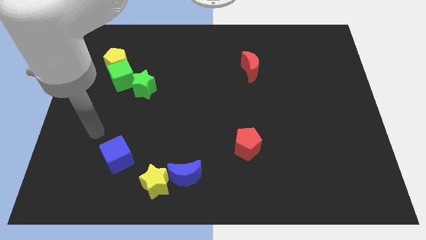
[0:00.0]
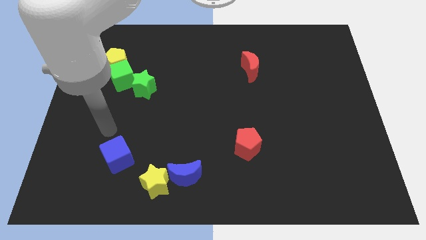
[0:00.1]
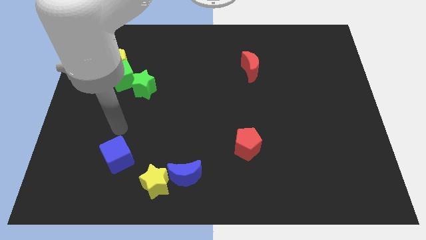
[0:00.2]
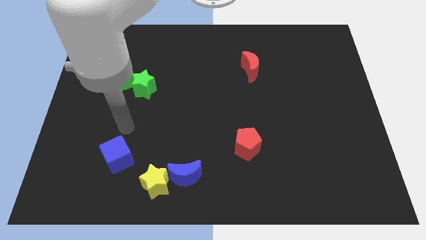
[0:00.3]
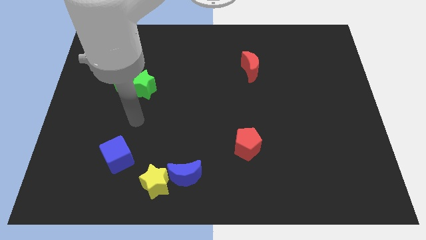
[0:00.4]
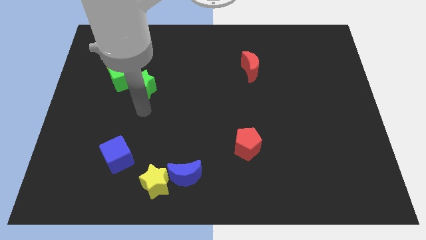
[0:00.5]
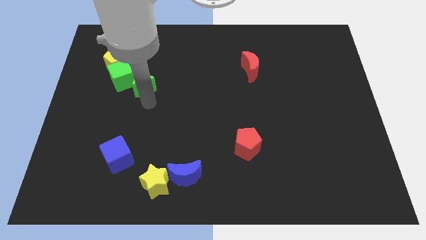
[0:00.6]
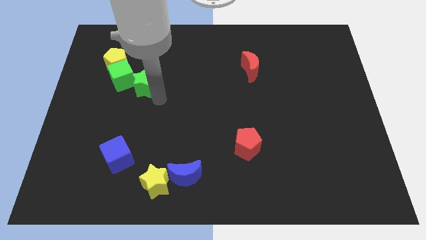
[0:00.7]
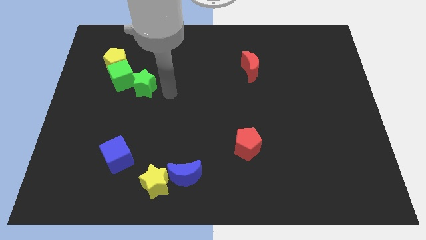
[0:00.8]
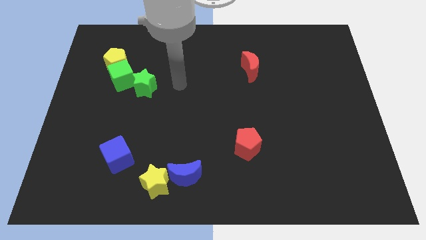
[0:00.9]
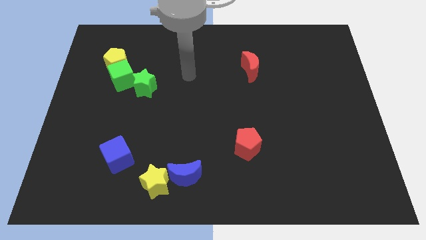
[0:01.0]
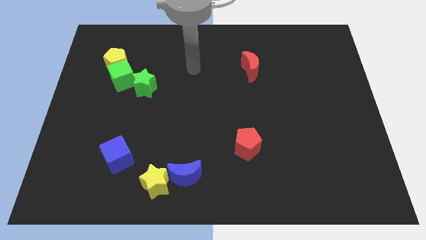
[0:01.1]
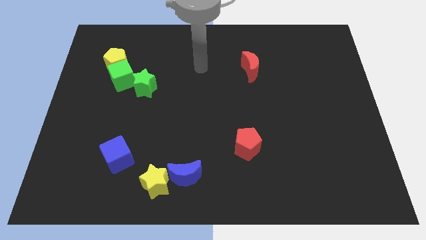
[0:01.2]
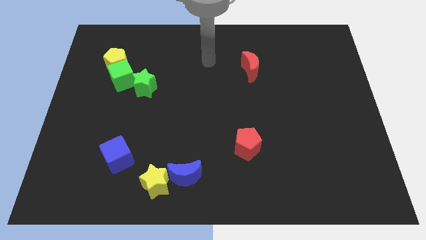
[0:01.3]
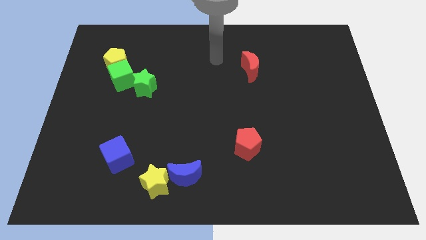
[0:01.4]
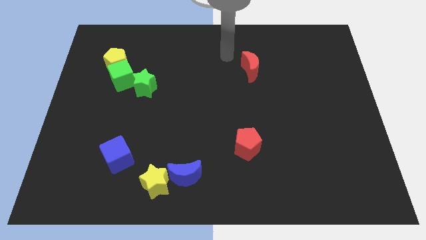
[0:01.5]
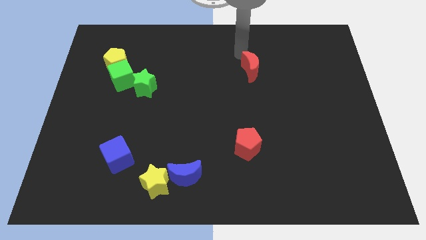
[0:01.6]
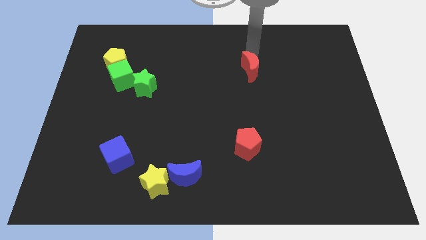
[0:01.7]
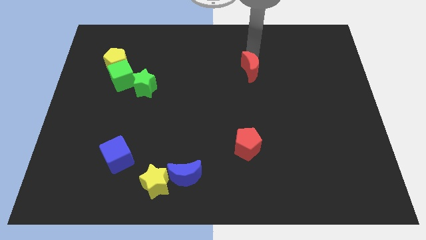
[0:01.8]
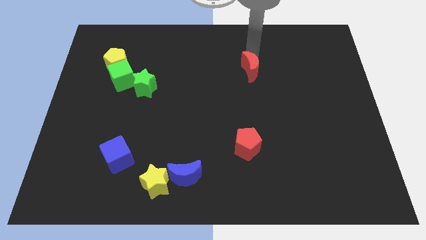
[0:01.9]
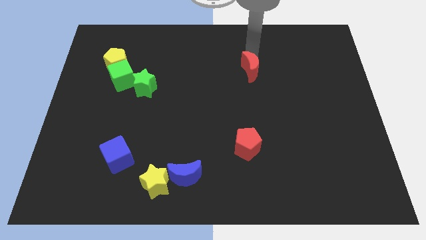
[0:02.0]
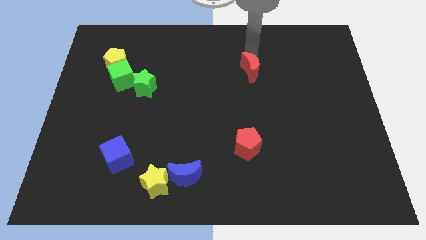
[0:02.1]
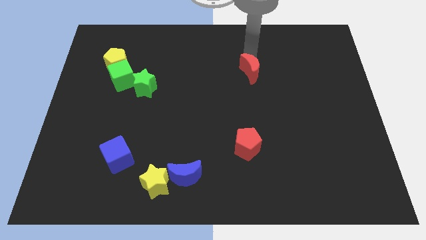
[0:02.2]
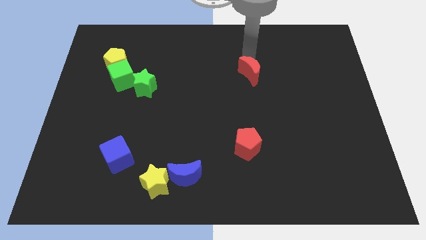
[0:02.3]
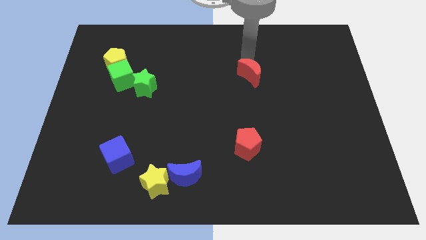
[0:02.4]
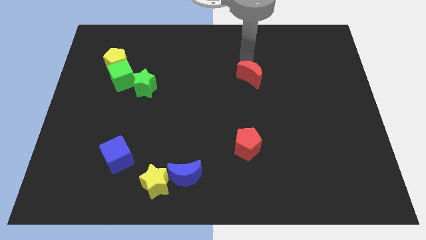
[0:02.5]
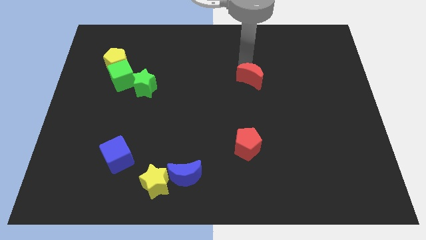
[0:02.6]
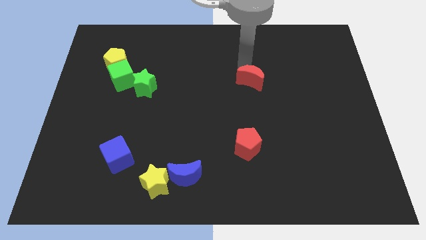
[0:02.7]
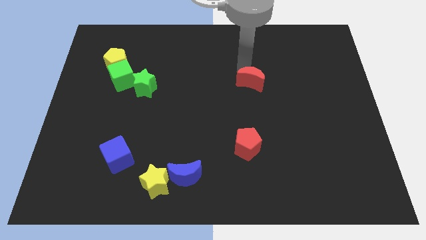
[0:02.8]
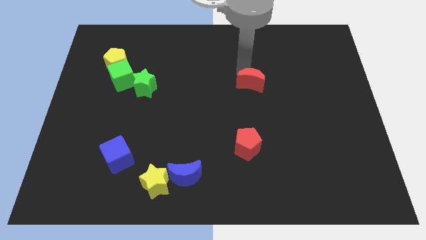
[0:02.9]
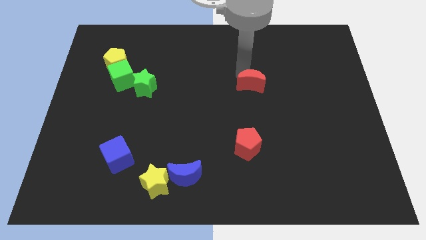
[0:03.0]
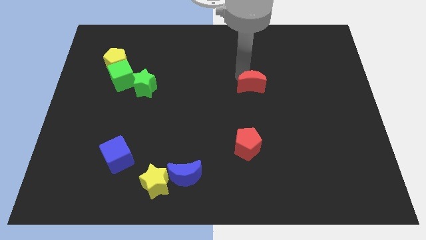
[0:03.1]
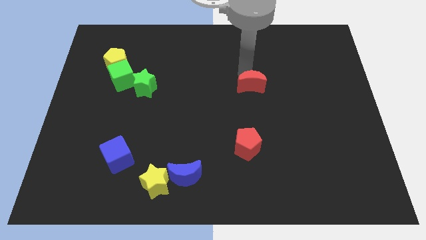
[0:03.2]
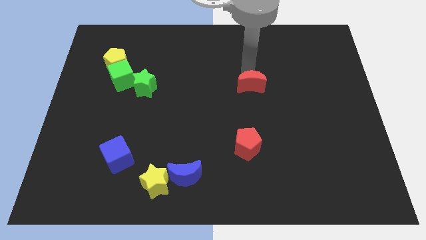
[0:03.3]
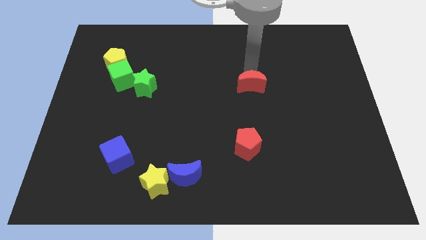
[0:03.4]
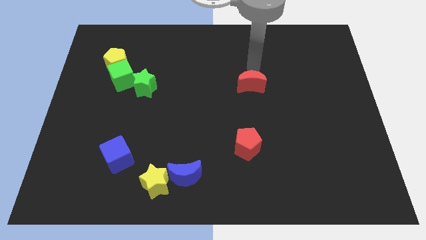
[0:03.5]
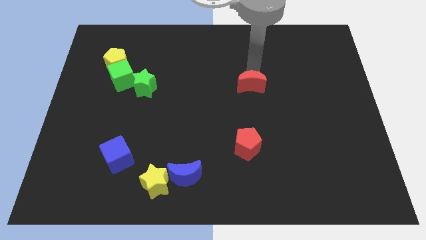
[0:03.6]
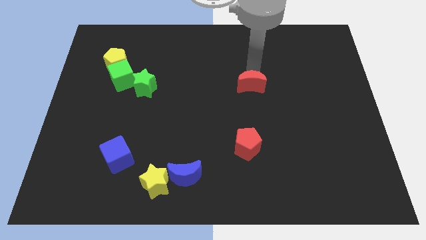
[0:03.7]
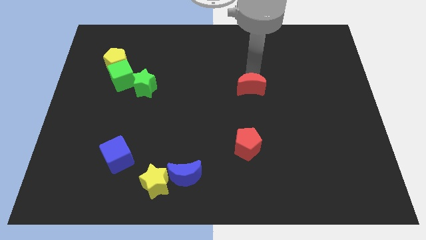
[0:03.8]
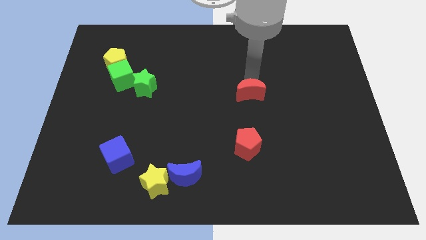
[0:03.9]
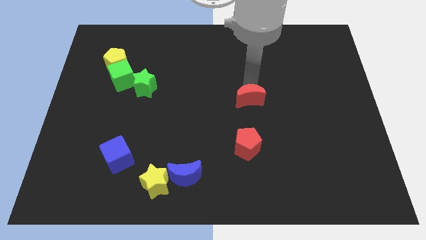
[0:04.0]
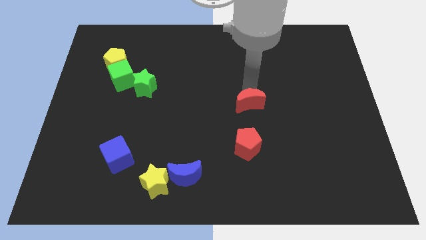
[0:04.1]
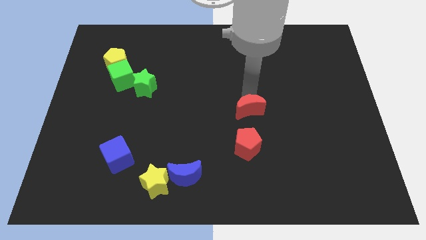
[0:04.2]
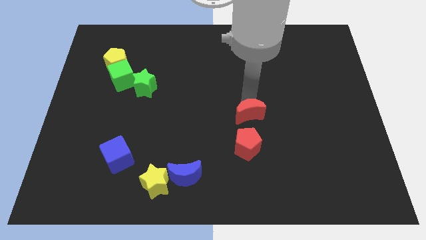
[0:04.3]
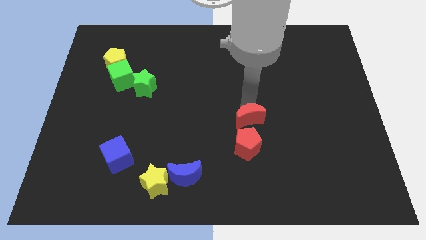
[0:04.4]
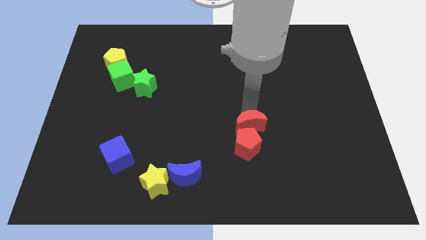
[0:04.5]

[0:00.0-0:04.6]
slide the red moon to the red pentagon

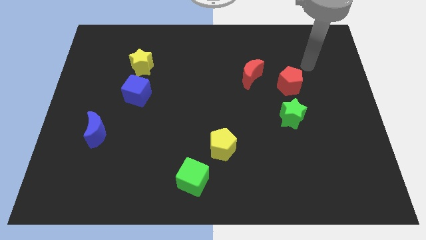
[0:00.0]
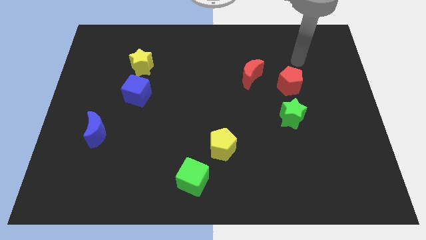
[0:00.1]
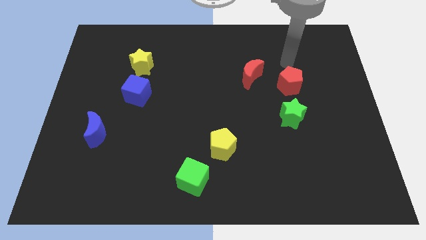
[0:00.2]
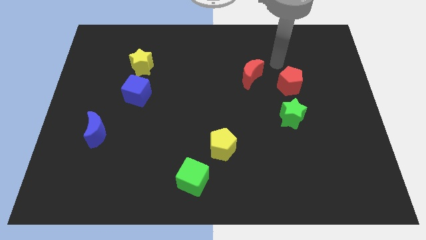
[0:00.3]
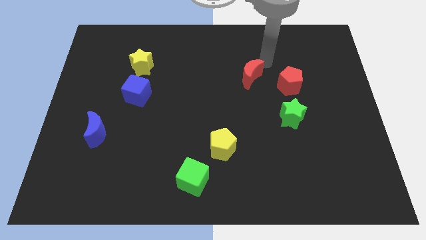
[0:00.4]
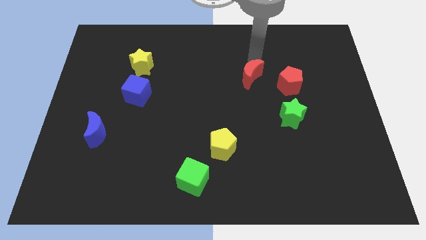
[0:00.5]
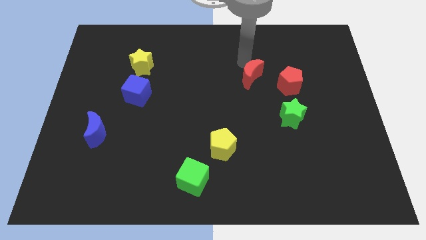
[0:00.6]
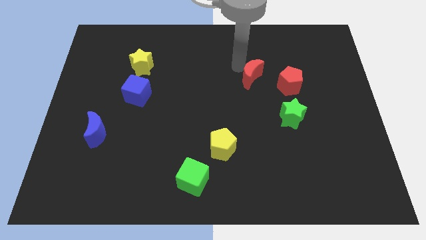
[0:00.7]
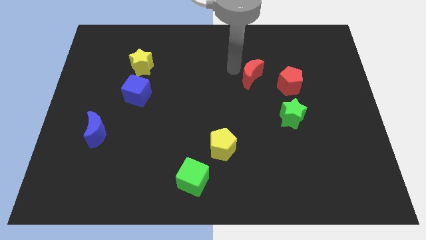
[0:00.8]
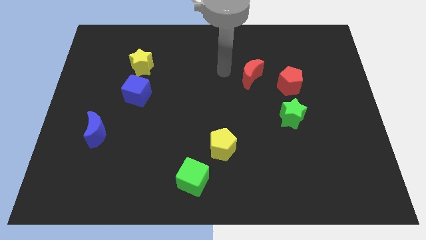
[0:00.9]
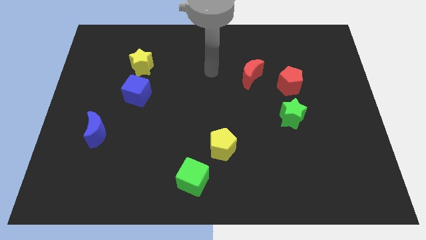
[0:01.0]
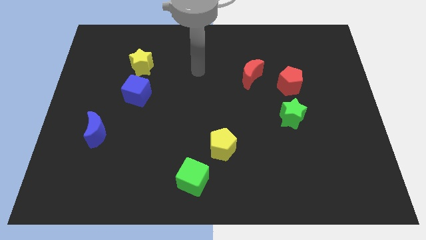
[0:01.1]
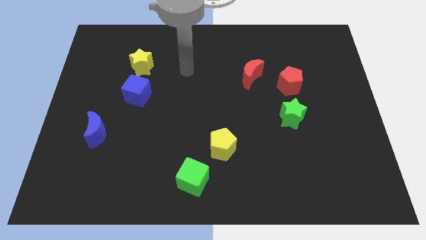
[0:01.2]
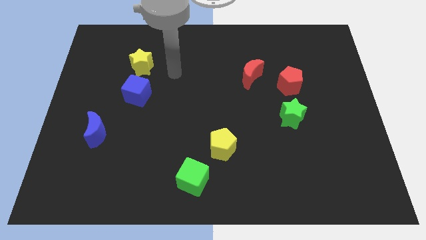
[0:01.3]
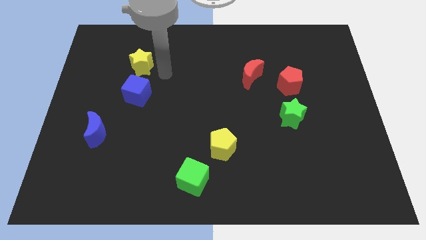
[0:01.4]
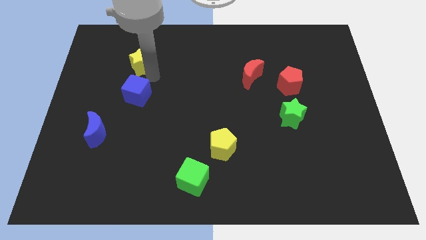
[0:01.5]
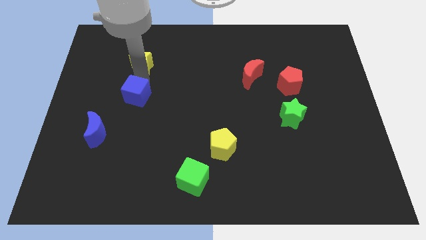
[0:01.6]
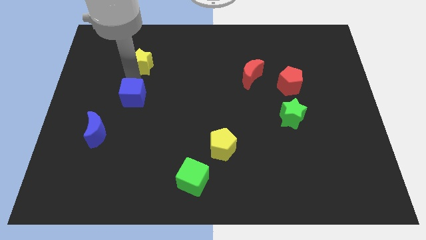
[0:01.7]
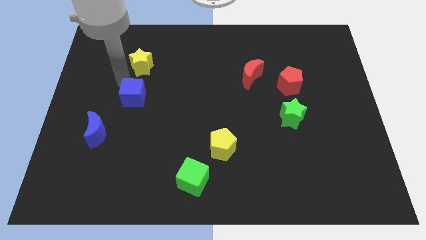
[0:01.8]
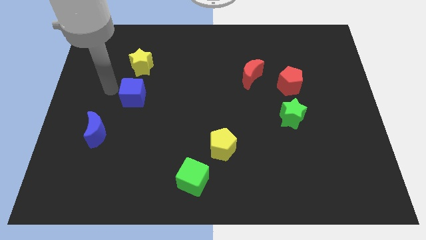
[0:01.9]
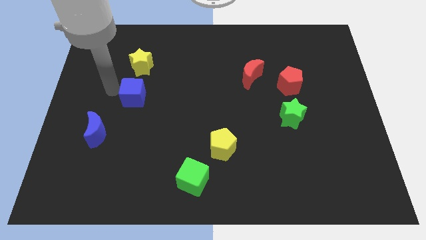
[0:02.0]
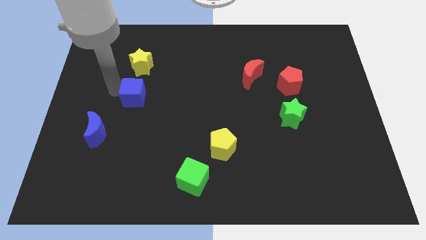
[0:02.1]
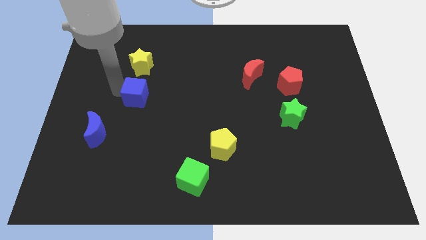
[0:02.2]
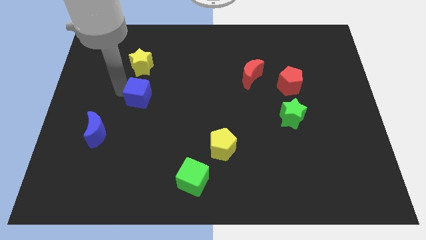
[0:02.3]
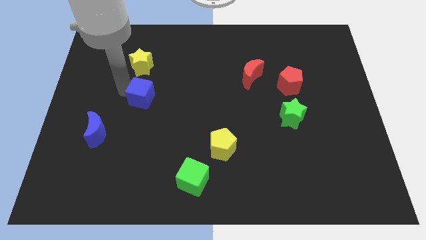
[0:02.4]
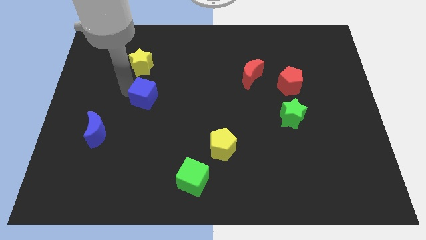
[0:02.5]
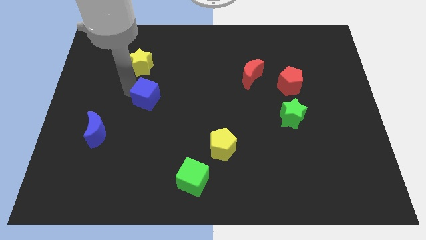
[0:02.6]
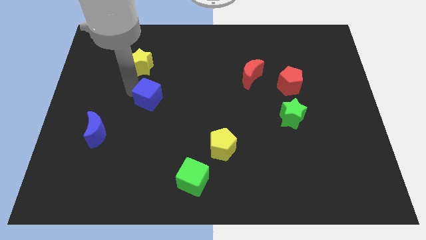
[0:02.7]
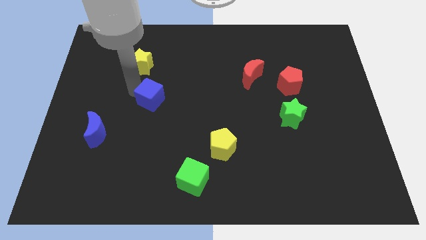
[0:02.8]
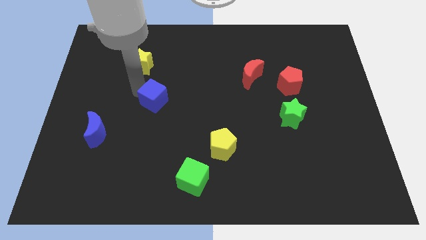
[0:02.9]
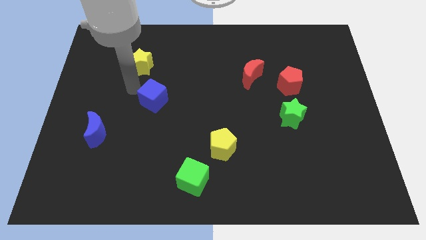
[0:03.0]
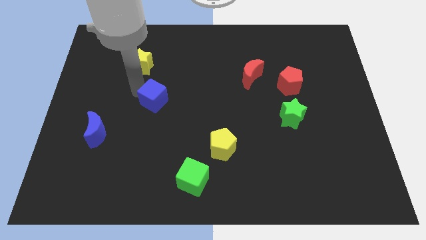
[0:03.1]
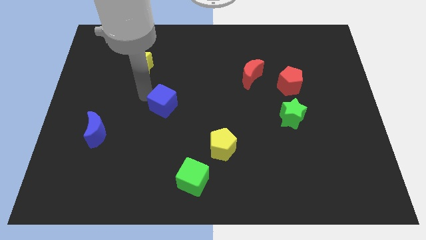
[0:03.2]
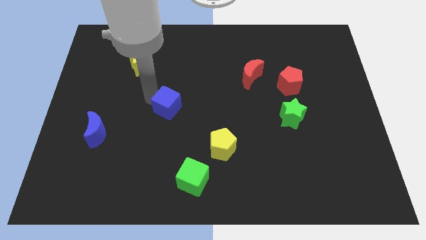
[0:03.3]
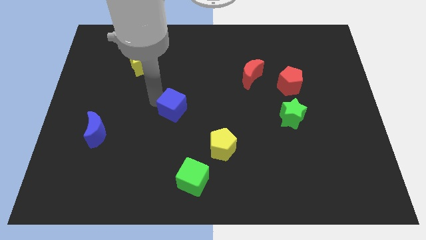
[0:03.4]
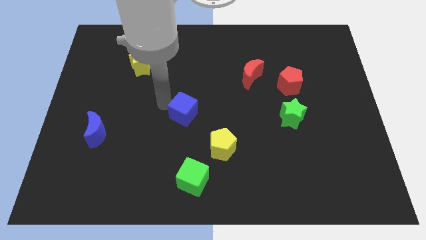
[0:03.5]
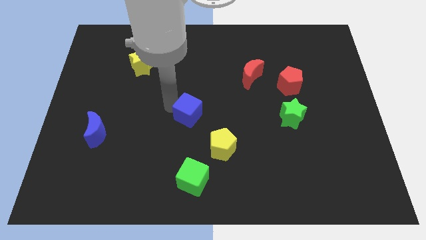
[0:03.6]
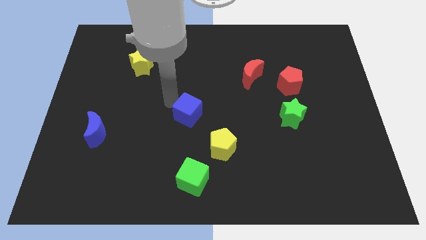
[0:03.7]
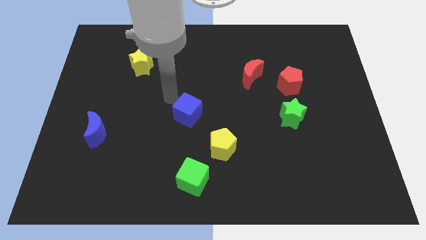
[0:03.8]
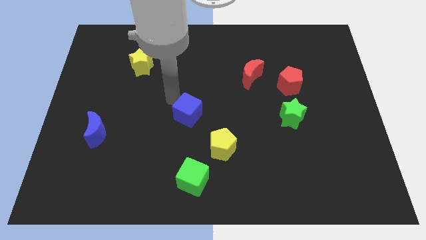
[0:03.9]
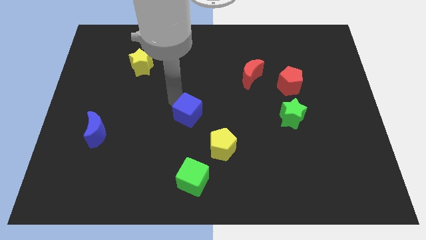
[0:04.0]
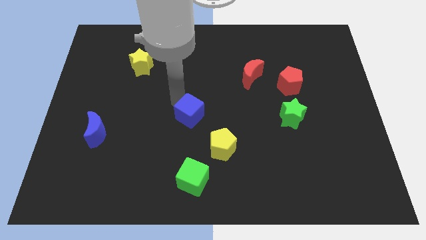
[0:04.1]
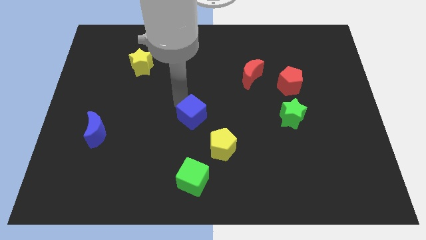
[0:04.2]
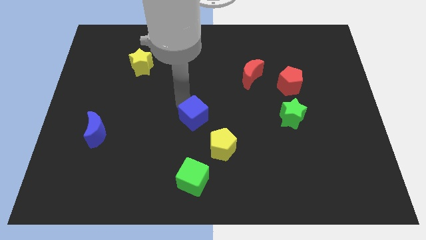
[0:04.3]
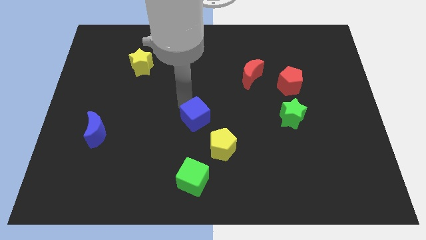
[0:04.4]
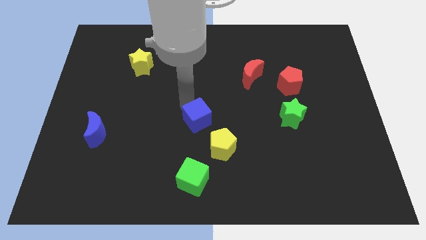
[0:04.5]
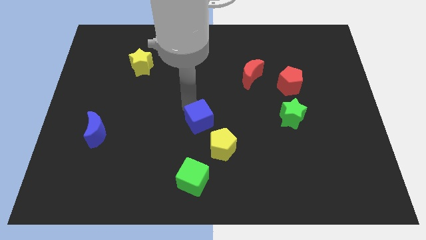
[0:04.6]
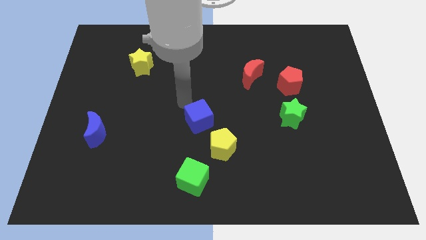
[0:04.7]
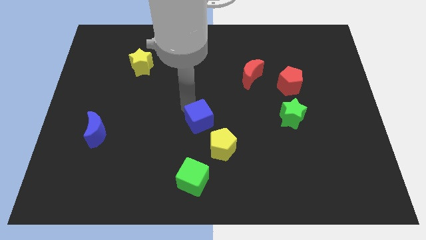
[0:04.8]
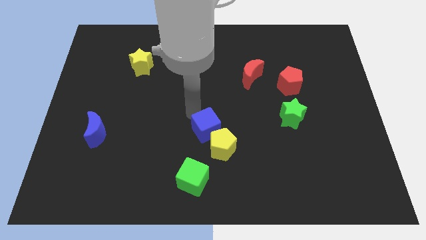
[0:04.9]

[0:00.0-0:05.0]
move the blue cube next to the yellow pentagon
